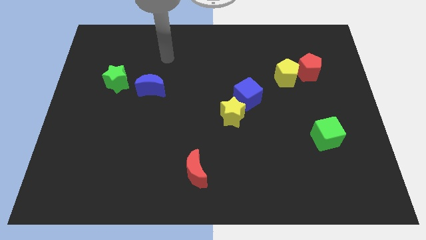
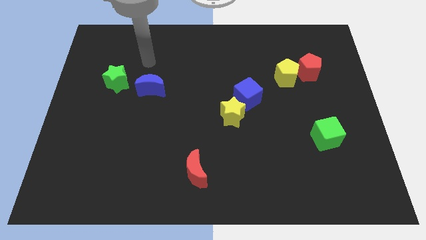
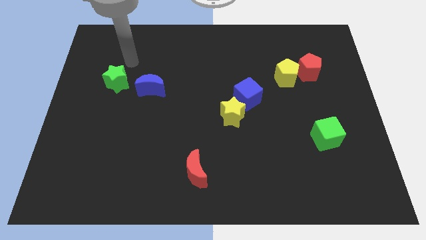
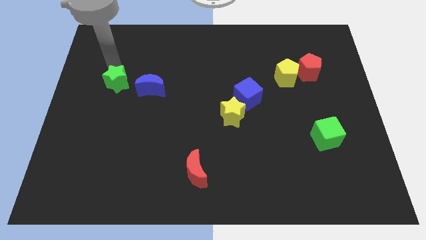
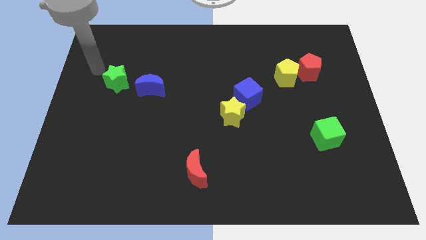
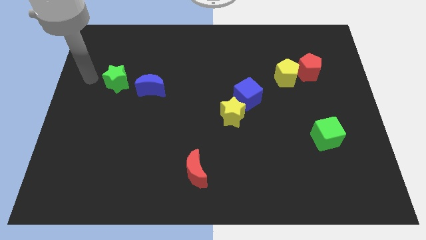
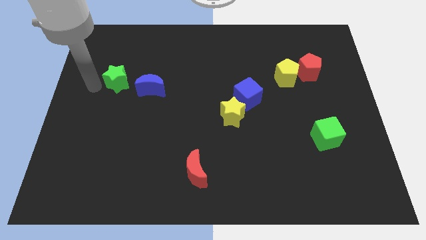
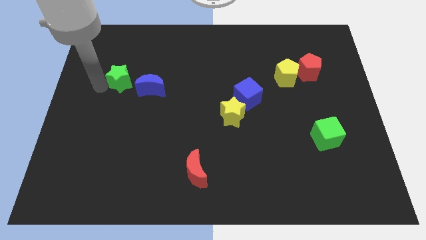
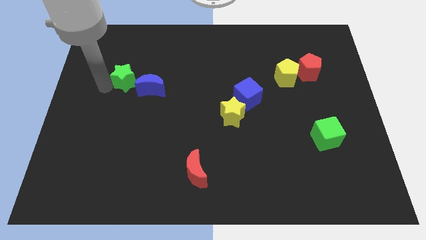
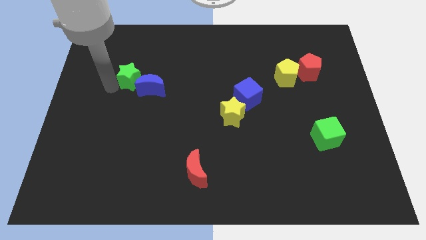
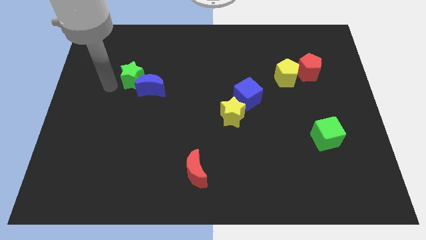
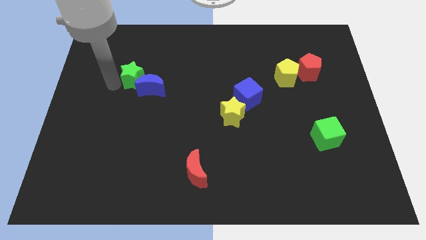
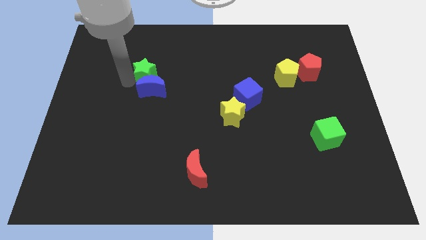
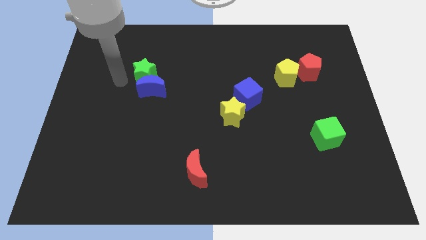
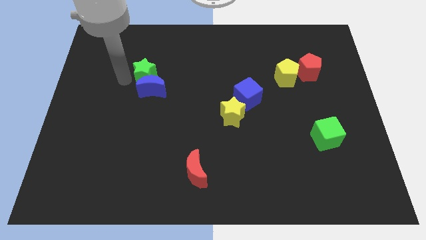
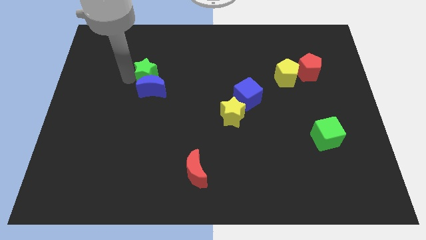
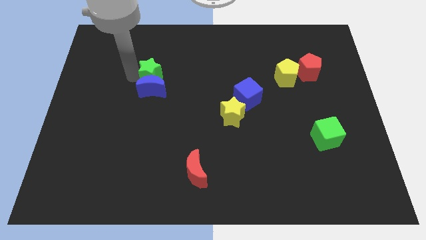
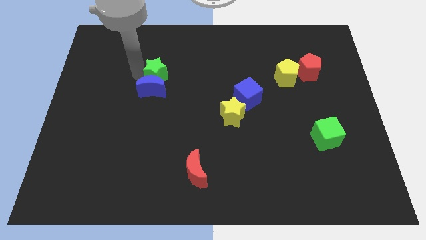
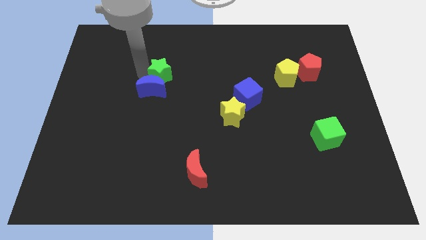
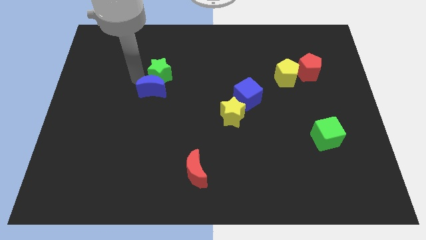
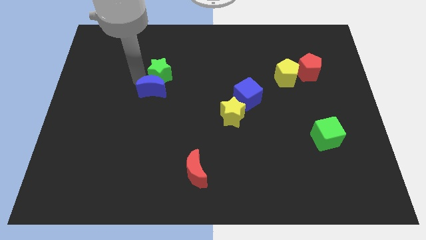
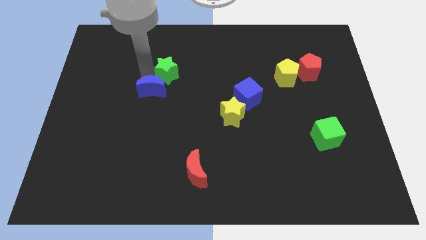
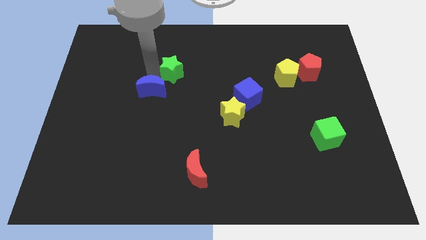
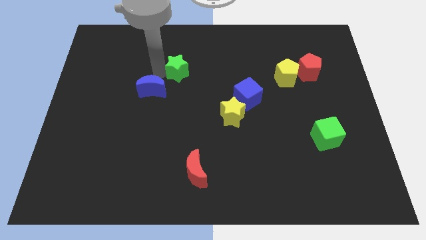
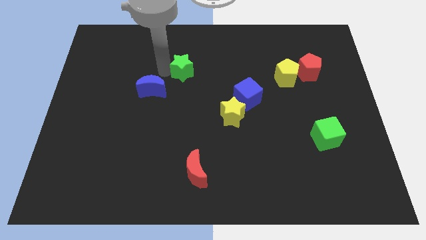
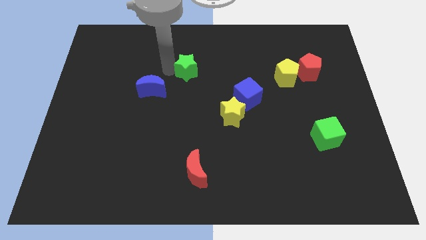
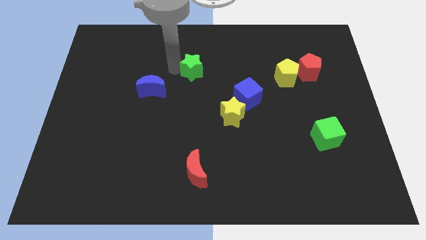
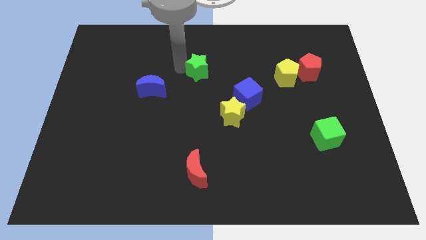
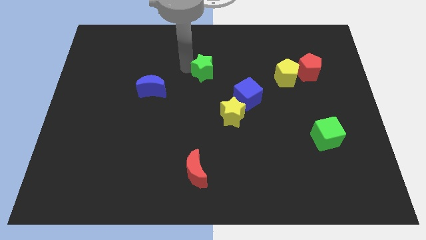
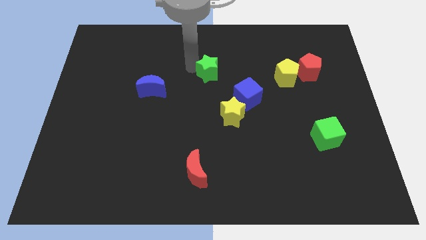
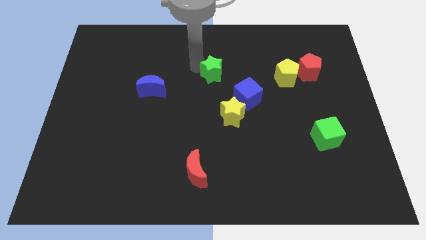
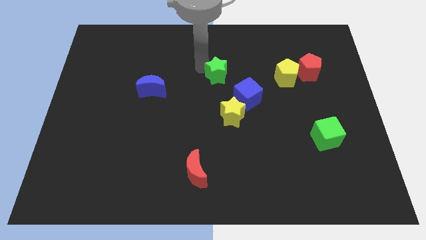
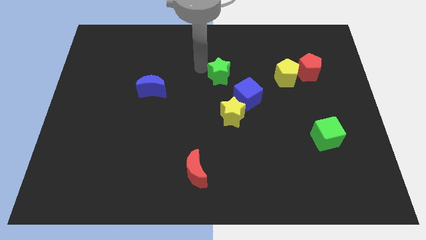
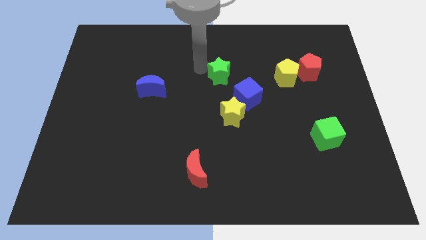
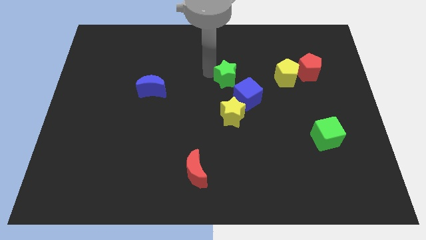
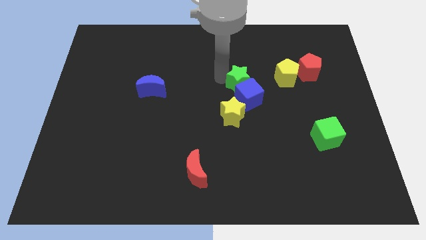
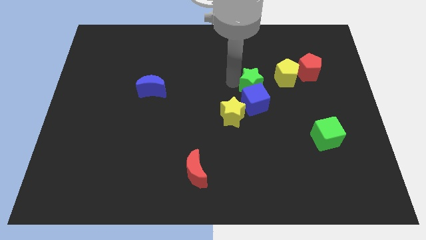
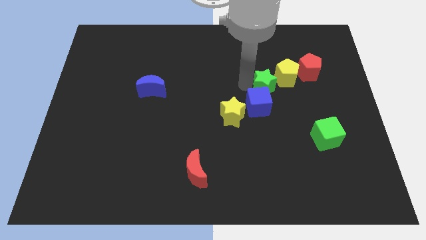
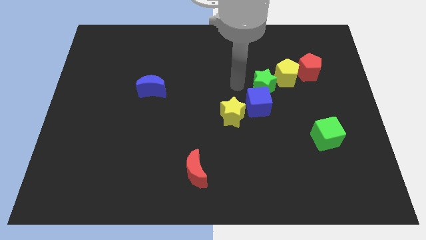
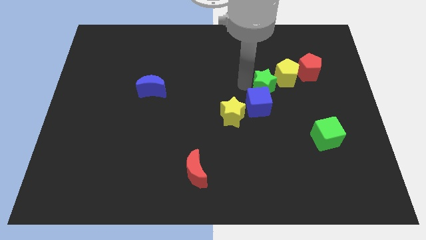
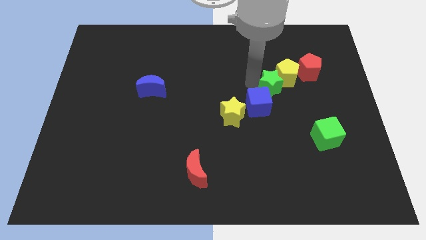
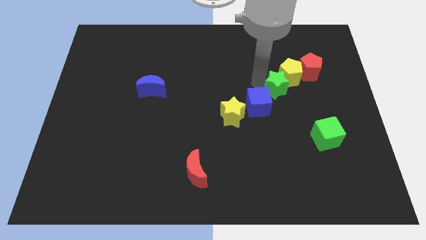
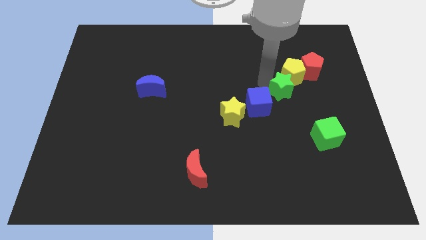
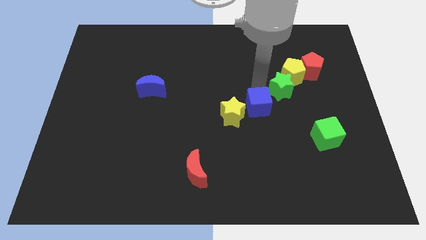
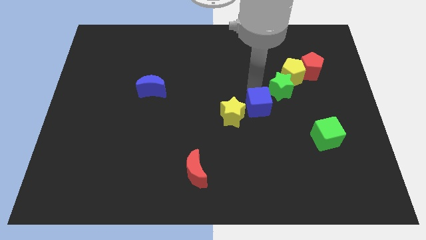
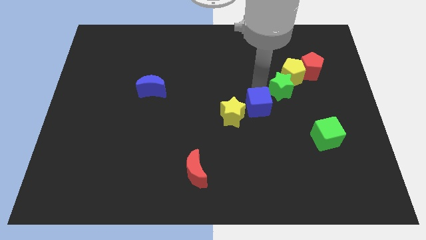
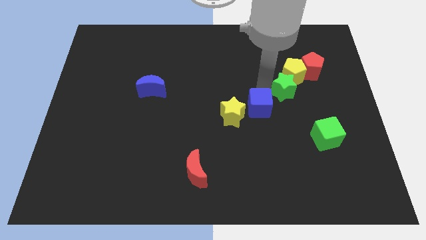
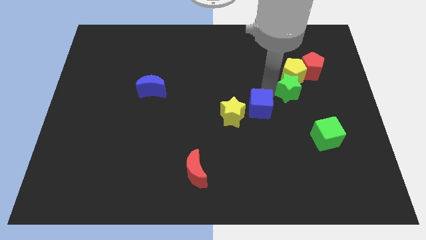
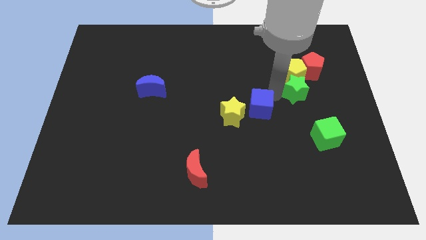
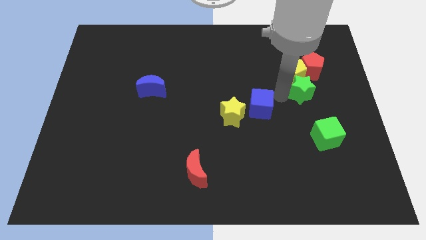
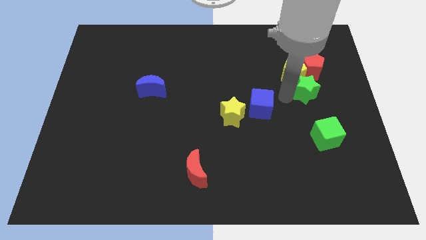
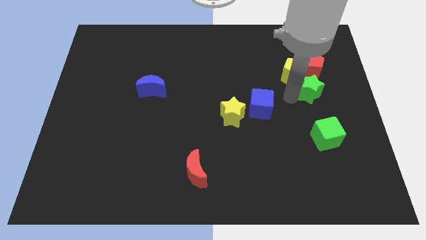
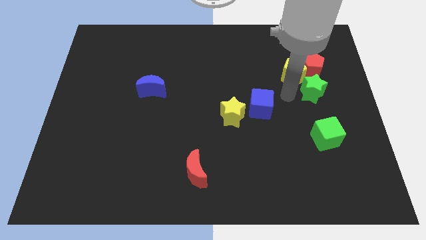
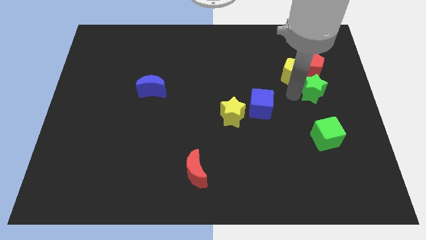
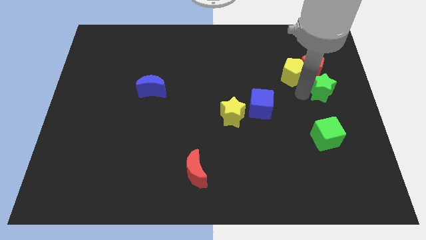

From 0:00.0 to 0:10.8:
slide the green star to the right side of the board
